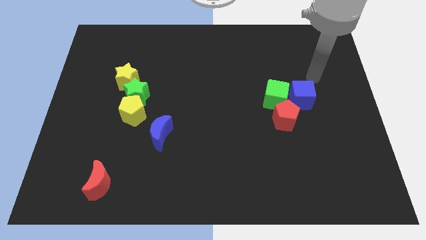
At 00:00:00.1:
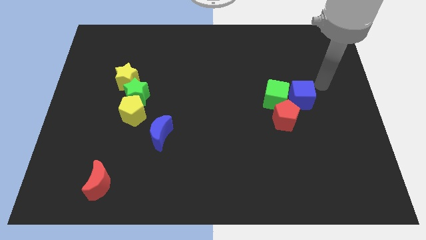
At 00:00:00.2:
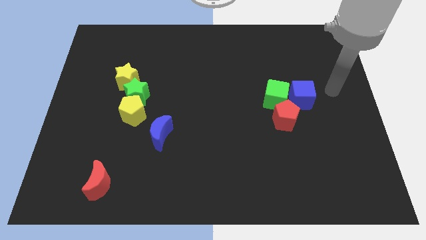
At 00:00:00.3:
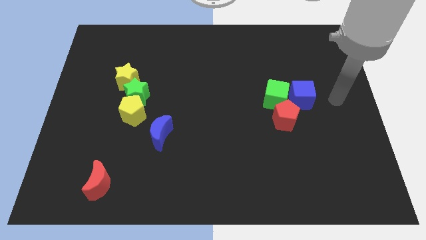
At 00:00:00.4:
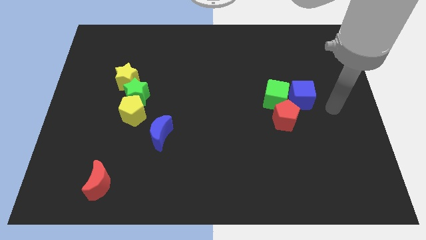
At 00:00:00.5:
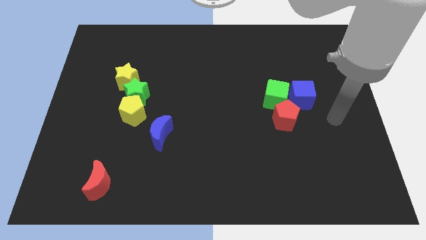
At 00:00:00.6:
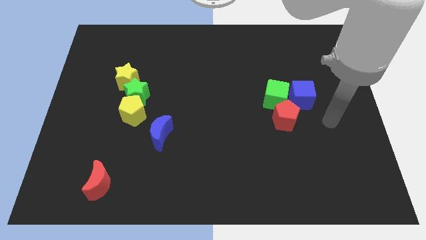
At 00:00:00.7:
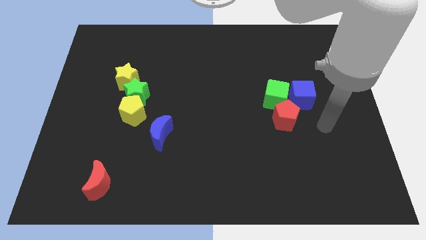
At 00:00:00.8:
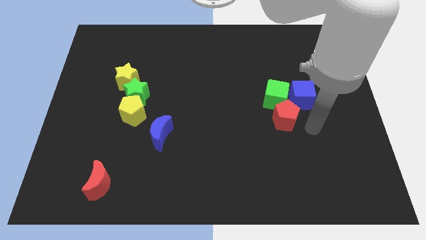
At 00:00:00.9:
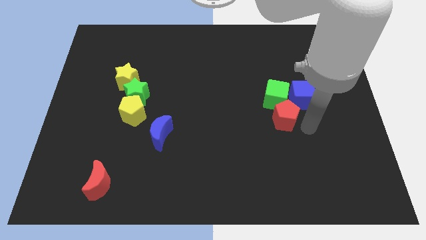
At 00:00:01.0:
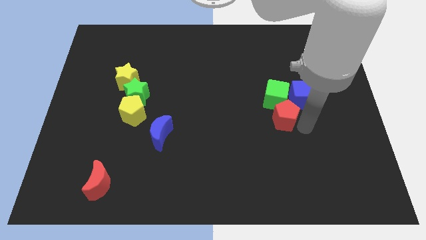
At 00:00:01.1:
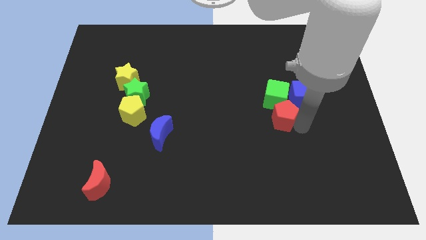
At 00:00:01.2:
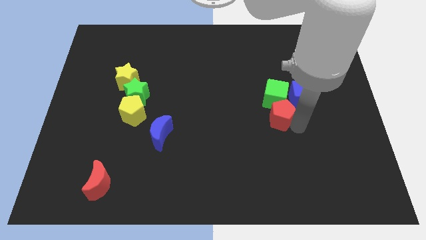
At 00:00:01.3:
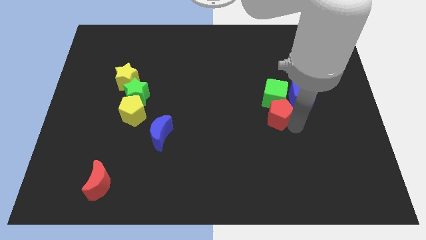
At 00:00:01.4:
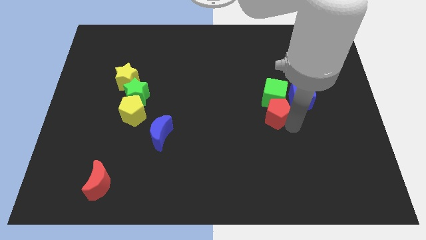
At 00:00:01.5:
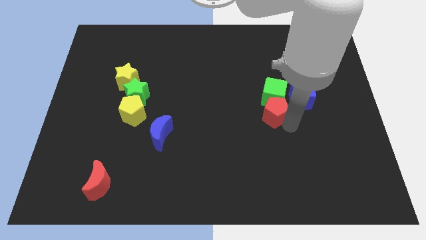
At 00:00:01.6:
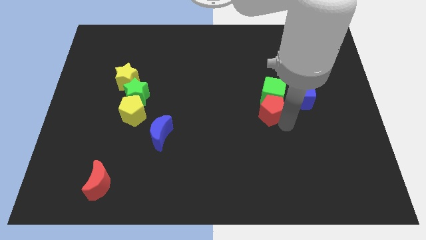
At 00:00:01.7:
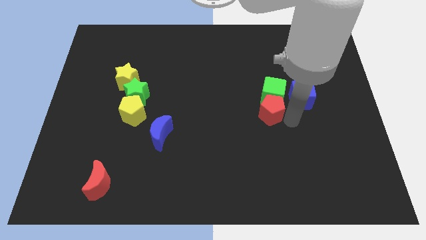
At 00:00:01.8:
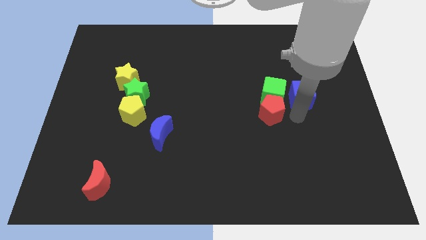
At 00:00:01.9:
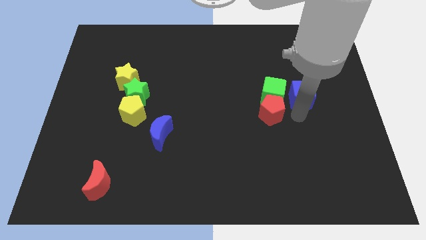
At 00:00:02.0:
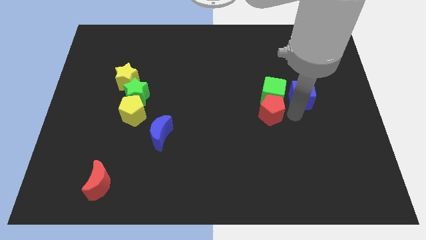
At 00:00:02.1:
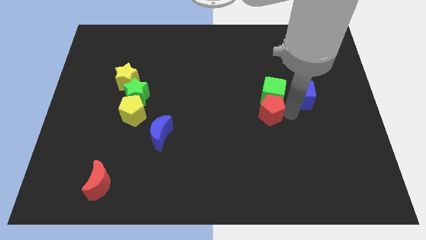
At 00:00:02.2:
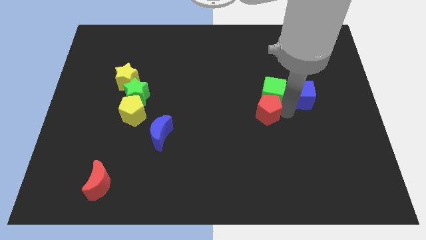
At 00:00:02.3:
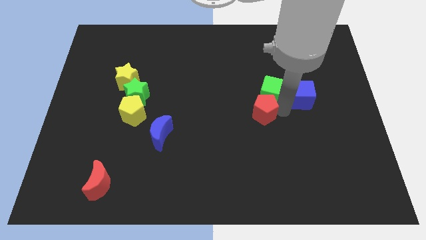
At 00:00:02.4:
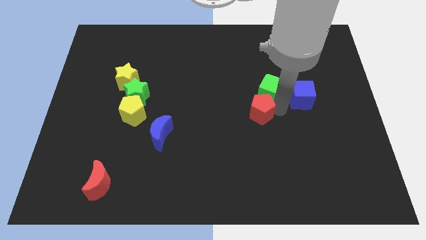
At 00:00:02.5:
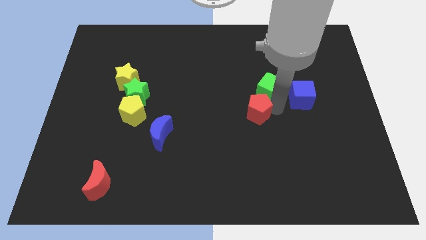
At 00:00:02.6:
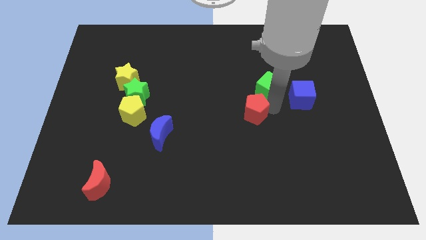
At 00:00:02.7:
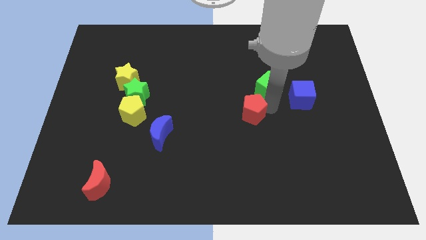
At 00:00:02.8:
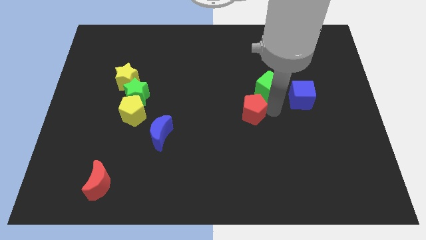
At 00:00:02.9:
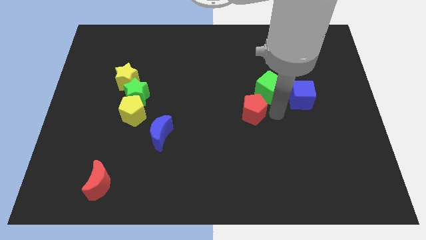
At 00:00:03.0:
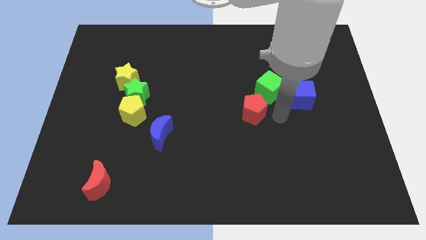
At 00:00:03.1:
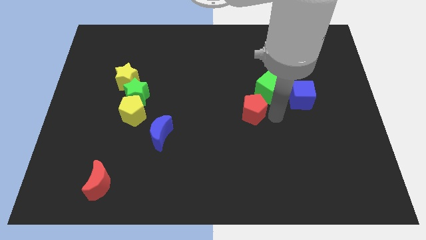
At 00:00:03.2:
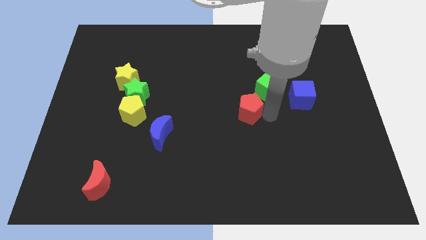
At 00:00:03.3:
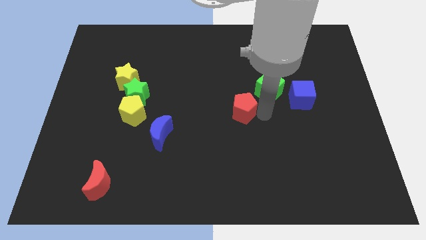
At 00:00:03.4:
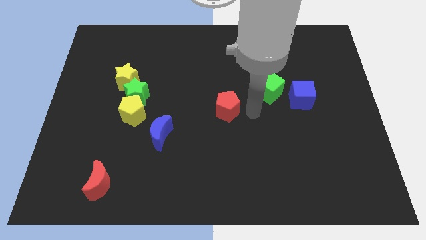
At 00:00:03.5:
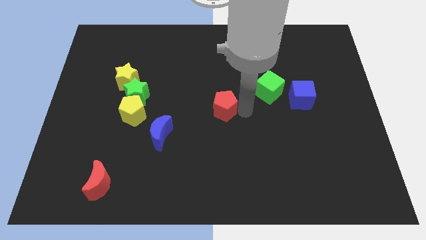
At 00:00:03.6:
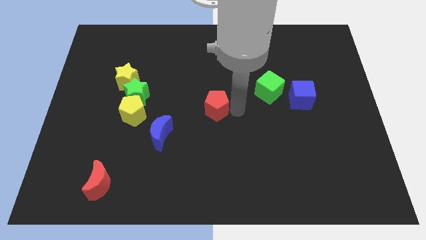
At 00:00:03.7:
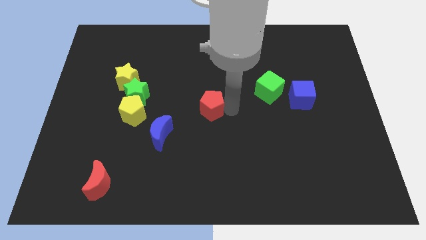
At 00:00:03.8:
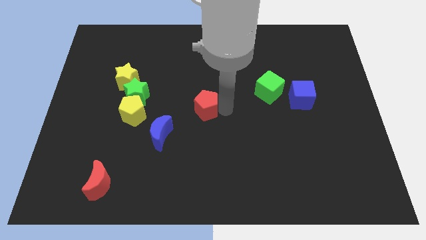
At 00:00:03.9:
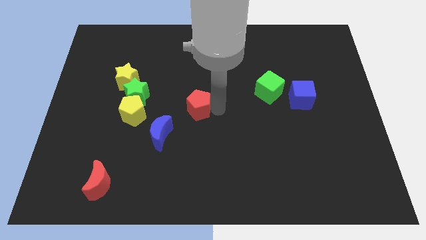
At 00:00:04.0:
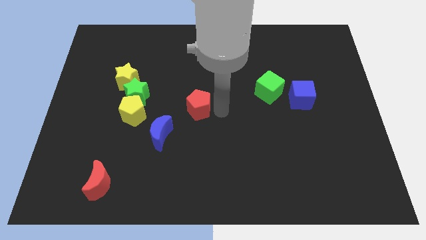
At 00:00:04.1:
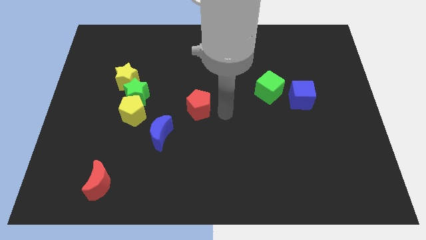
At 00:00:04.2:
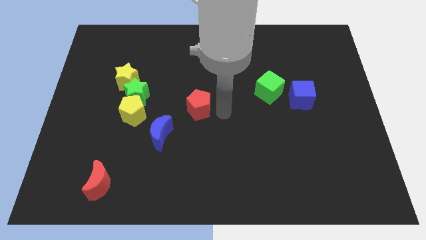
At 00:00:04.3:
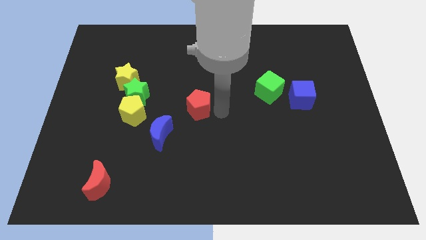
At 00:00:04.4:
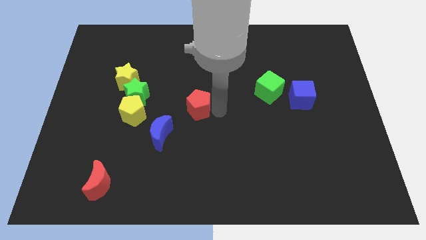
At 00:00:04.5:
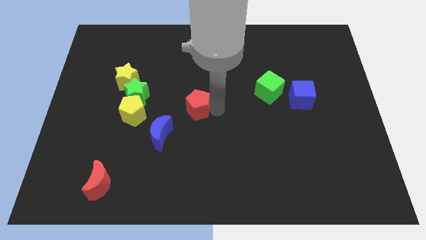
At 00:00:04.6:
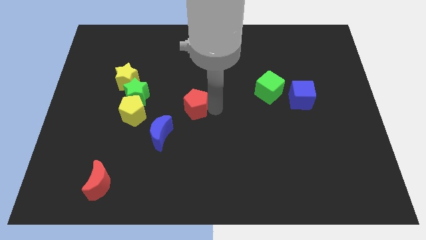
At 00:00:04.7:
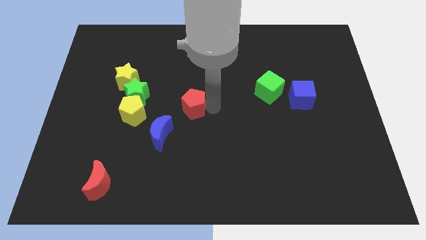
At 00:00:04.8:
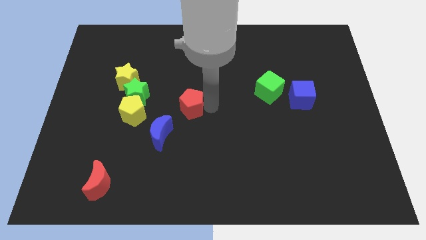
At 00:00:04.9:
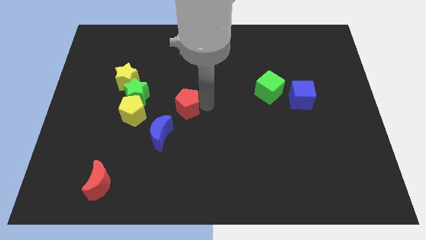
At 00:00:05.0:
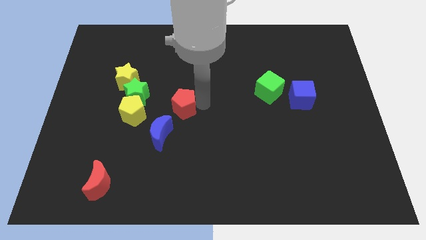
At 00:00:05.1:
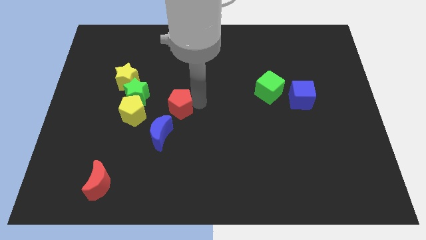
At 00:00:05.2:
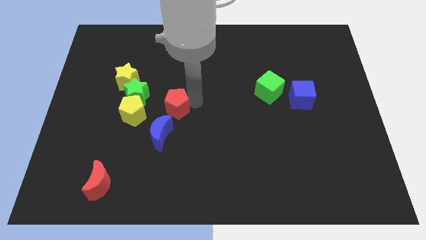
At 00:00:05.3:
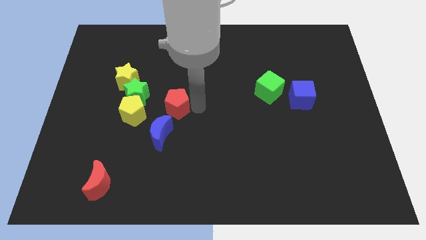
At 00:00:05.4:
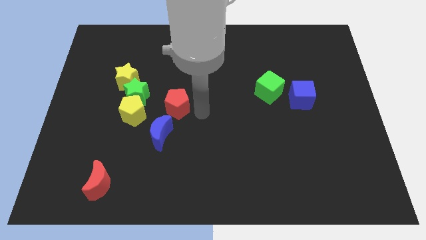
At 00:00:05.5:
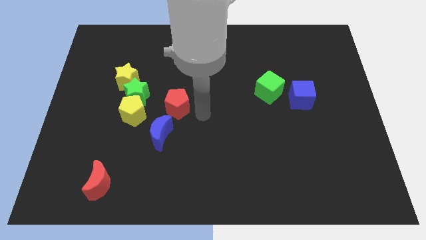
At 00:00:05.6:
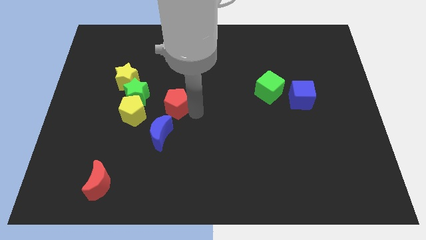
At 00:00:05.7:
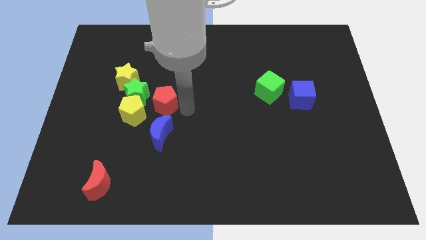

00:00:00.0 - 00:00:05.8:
put the red pentagon to the bottom right side of the yellow star

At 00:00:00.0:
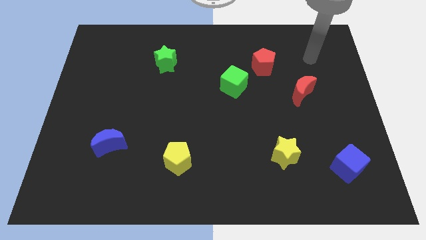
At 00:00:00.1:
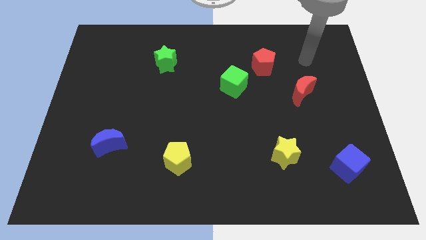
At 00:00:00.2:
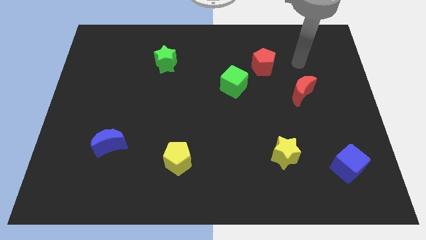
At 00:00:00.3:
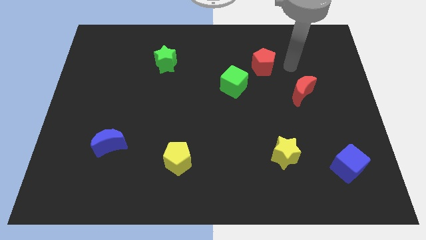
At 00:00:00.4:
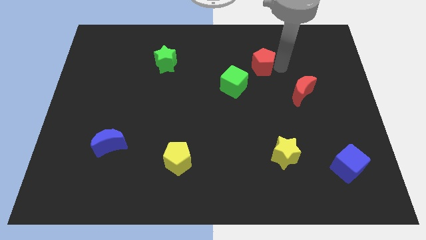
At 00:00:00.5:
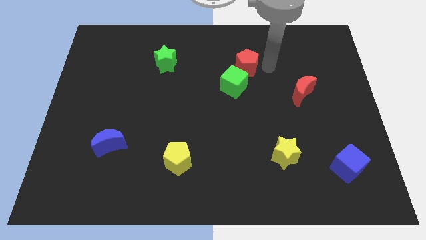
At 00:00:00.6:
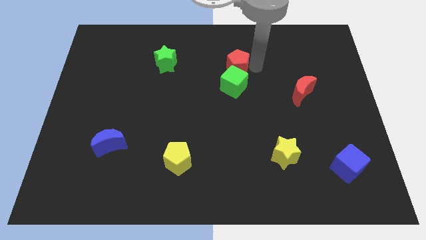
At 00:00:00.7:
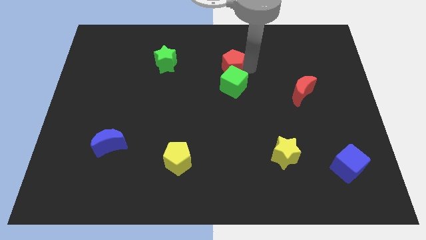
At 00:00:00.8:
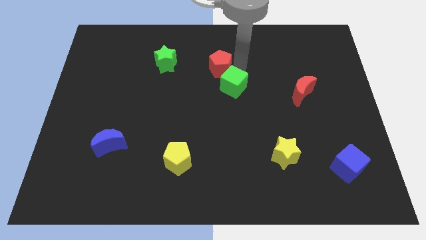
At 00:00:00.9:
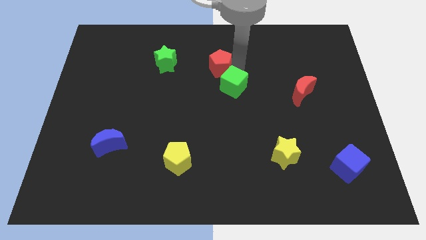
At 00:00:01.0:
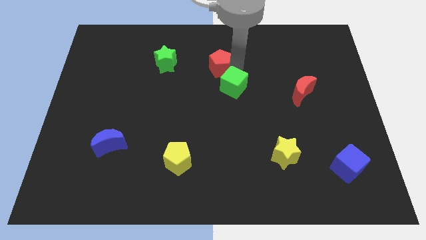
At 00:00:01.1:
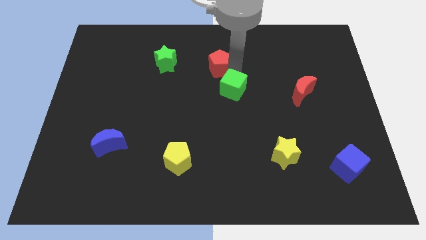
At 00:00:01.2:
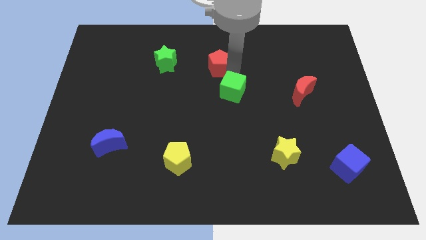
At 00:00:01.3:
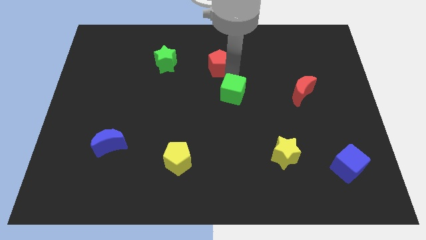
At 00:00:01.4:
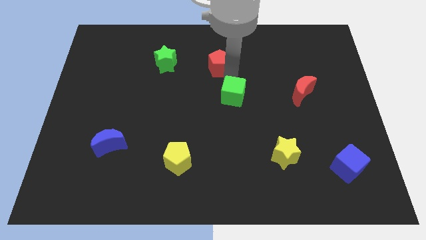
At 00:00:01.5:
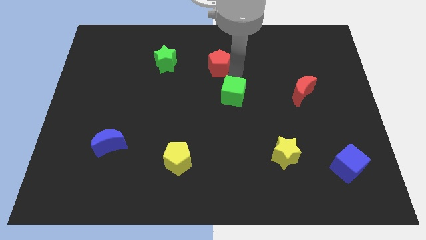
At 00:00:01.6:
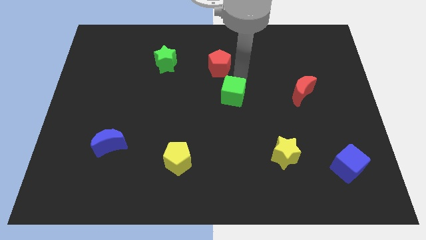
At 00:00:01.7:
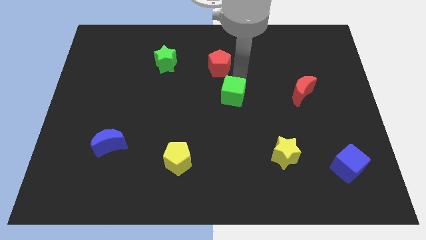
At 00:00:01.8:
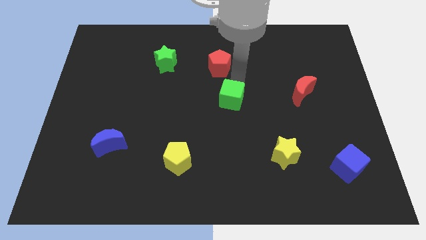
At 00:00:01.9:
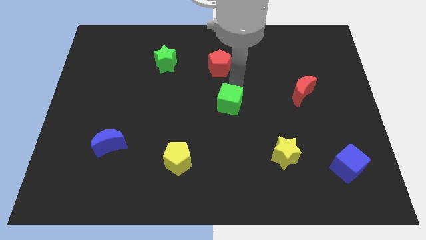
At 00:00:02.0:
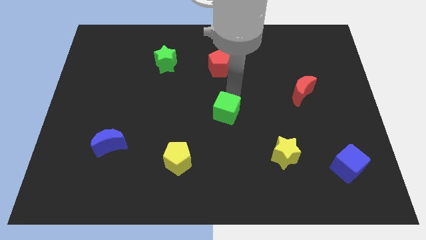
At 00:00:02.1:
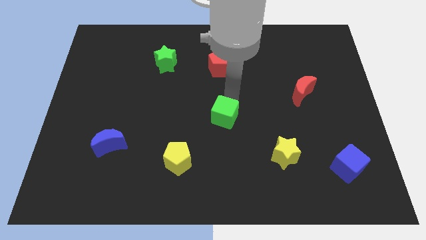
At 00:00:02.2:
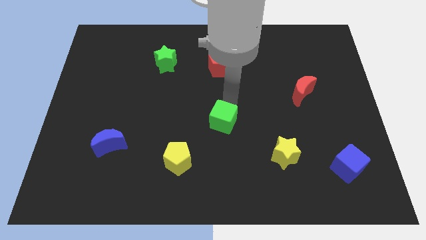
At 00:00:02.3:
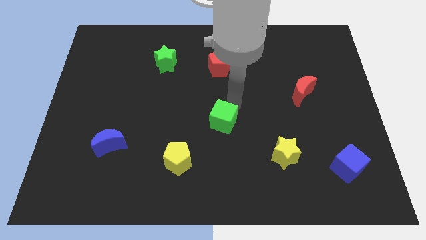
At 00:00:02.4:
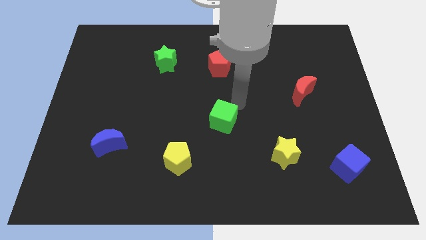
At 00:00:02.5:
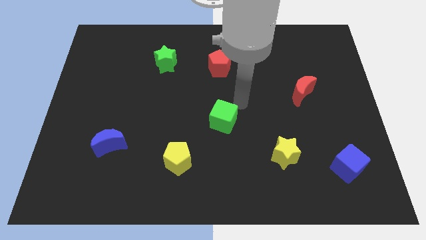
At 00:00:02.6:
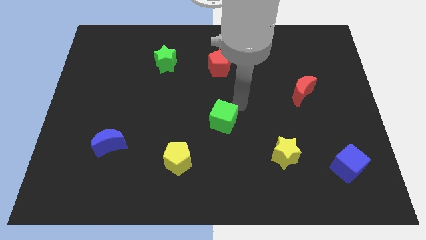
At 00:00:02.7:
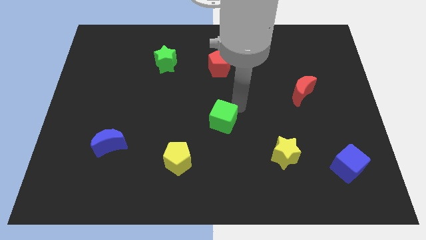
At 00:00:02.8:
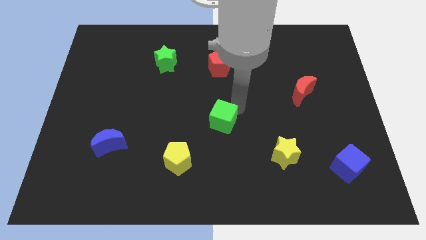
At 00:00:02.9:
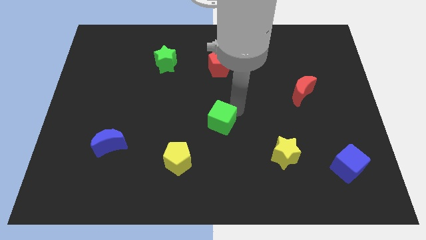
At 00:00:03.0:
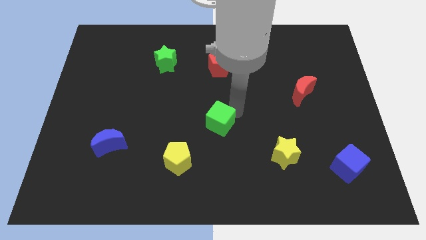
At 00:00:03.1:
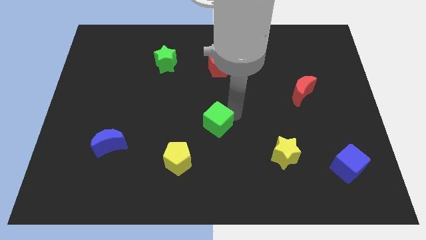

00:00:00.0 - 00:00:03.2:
move the green cube diagonally up and to the right of the yellow pentagon
